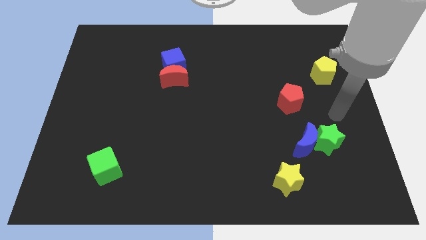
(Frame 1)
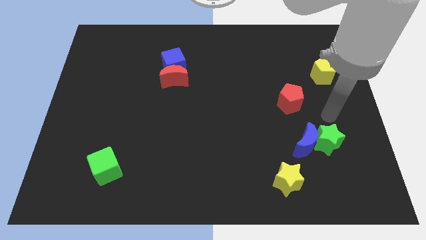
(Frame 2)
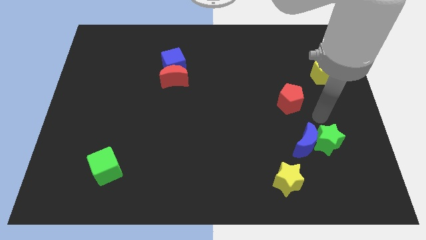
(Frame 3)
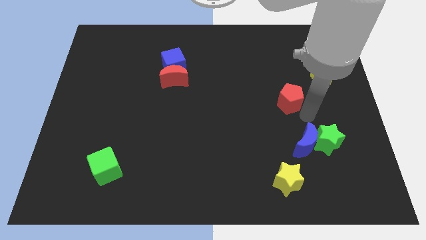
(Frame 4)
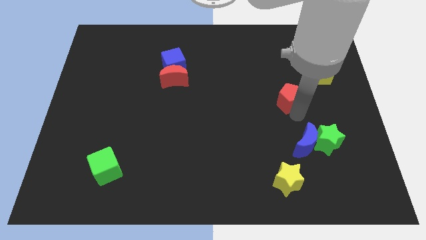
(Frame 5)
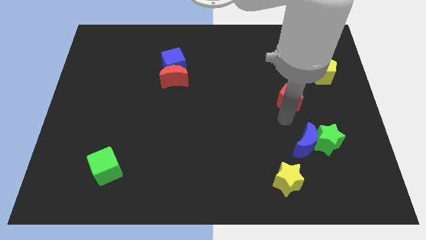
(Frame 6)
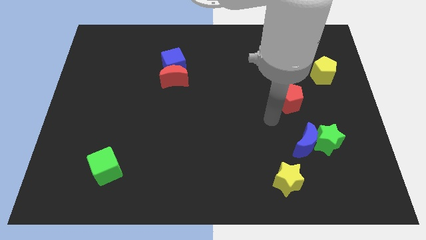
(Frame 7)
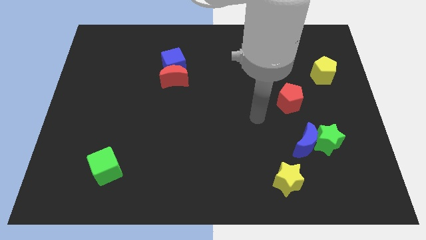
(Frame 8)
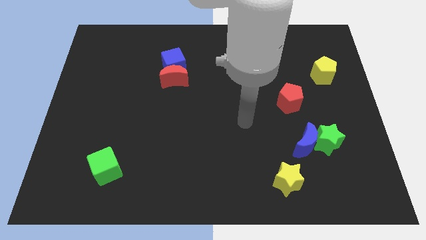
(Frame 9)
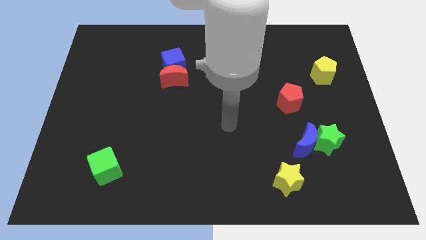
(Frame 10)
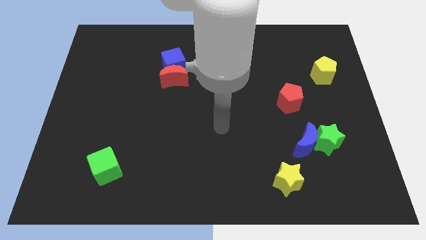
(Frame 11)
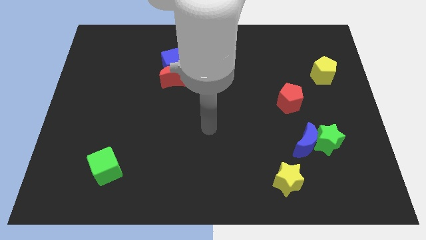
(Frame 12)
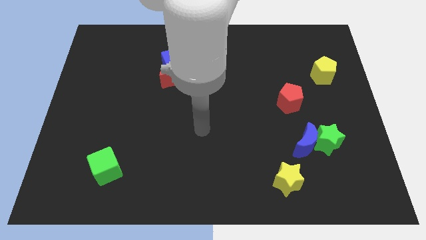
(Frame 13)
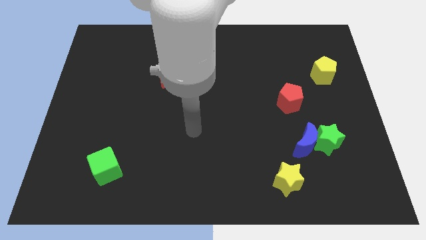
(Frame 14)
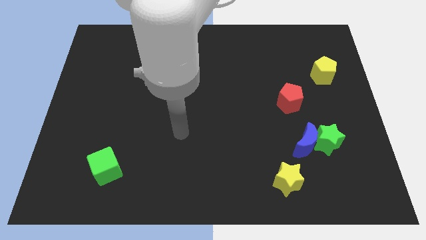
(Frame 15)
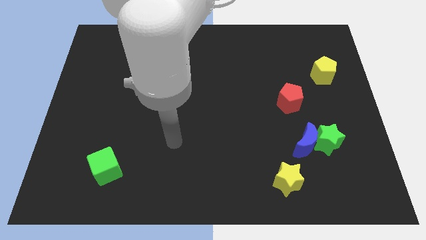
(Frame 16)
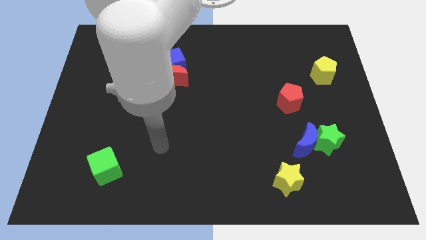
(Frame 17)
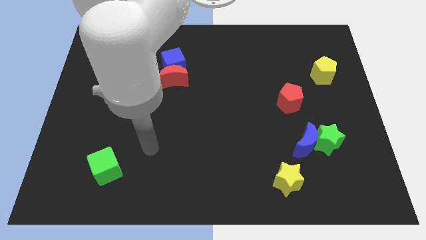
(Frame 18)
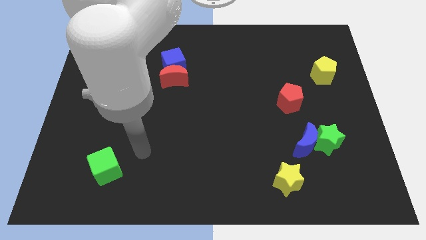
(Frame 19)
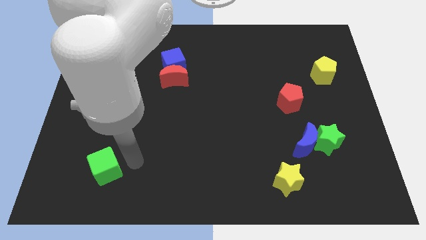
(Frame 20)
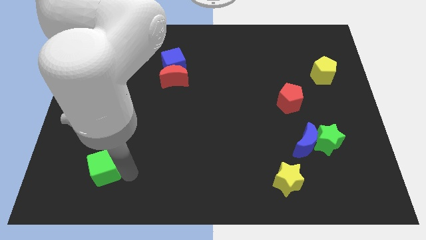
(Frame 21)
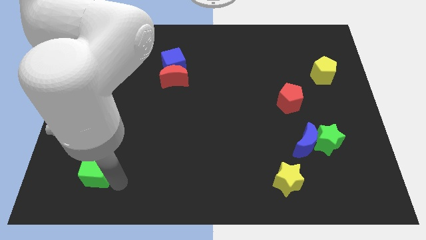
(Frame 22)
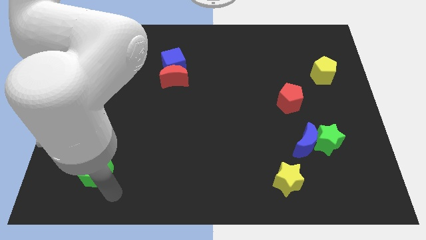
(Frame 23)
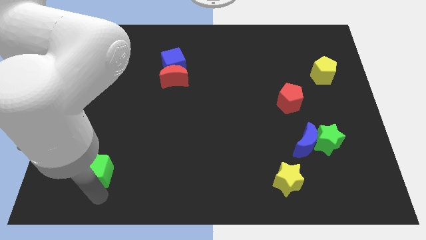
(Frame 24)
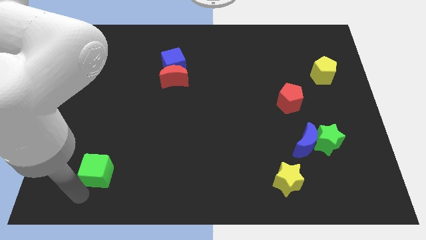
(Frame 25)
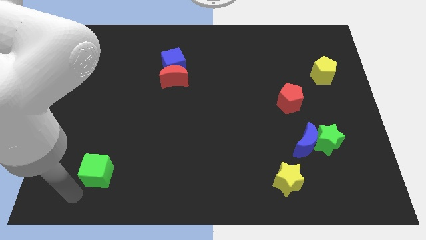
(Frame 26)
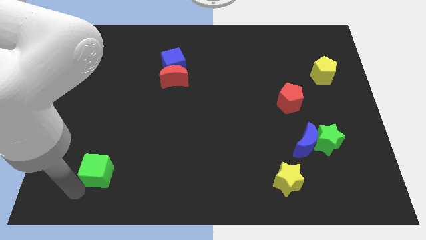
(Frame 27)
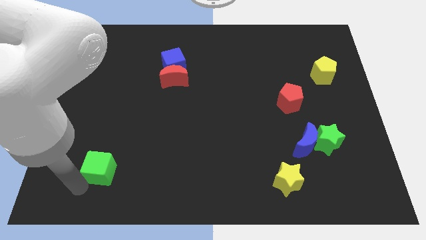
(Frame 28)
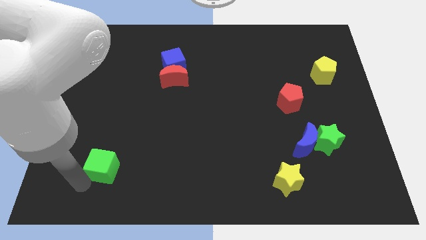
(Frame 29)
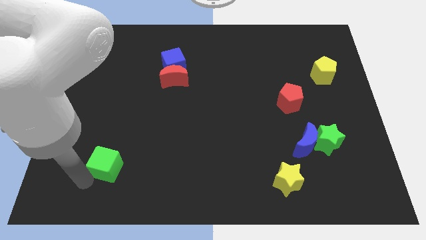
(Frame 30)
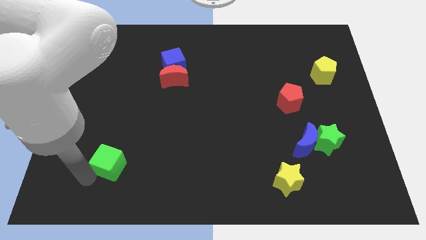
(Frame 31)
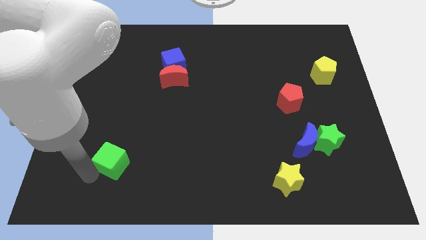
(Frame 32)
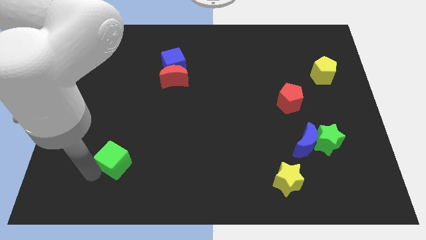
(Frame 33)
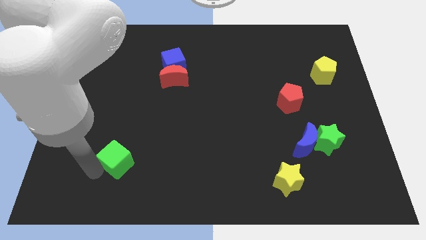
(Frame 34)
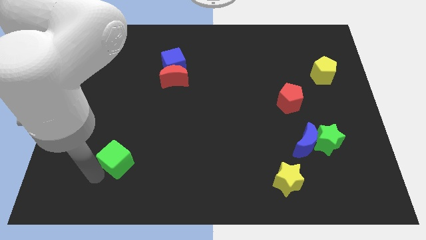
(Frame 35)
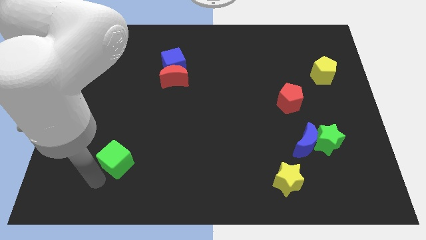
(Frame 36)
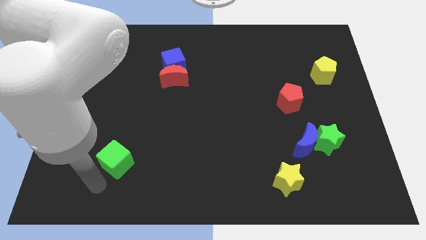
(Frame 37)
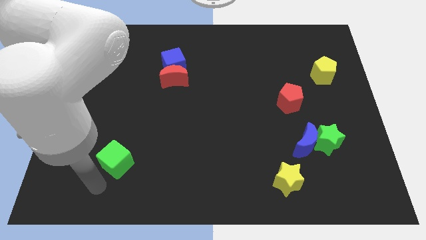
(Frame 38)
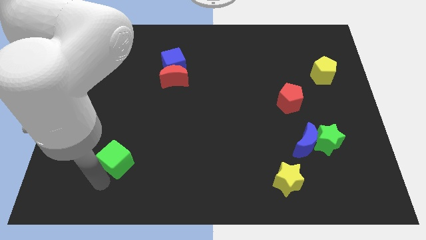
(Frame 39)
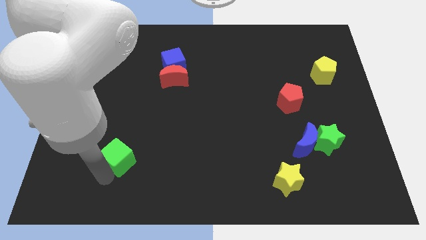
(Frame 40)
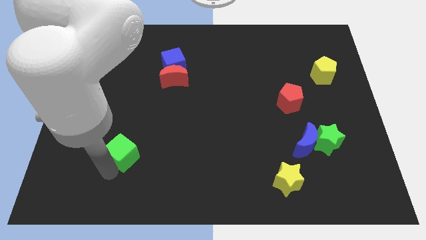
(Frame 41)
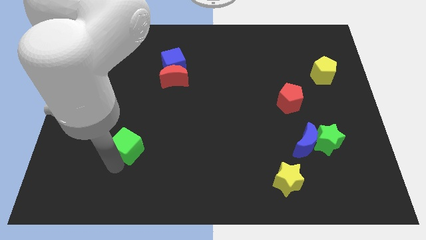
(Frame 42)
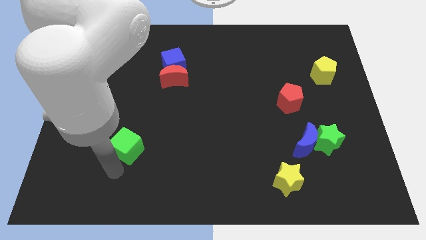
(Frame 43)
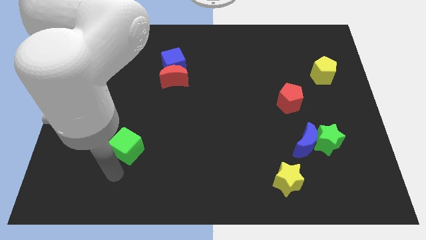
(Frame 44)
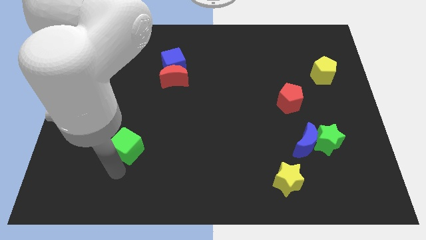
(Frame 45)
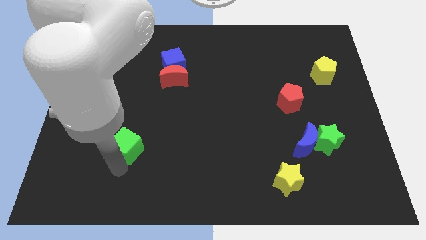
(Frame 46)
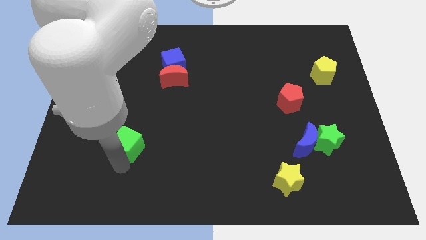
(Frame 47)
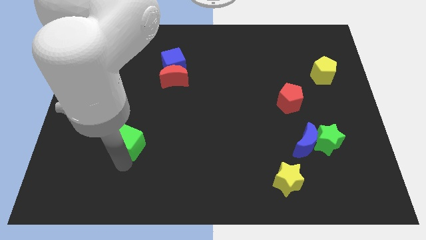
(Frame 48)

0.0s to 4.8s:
push the green cube slightly diagonally upwards and to the right

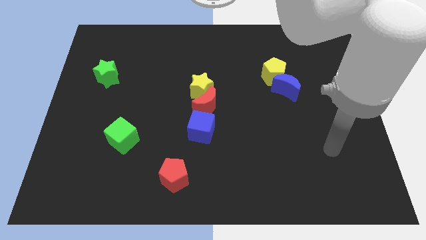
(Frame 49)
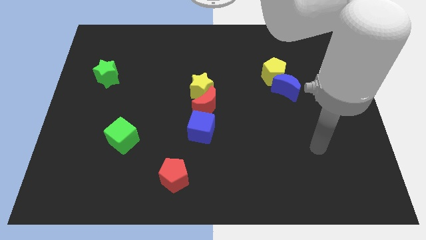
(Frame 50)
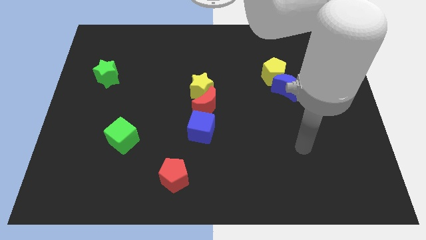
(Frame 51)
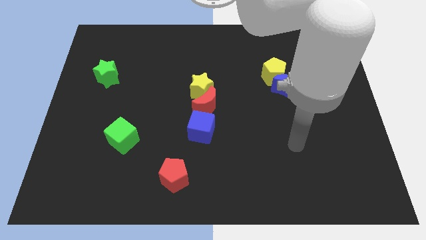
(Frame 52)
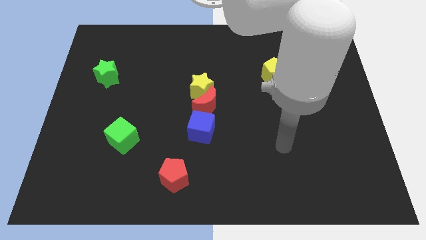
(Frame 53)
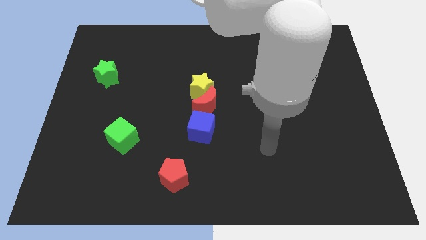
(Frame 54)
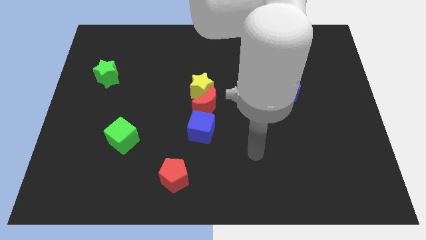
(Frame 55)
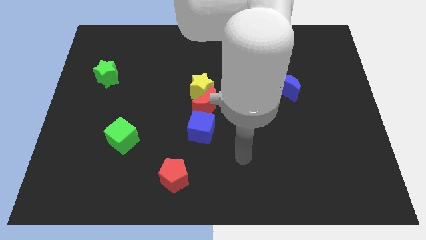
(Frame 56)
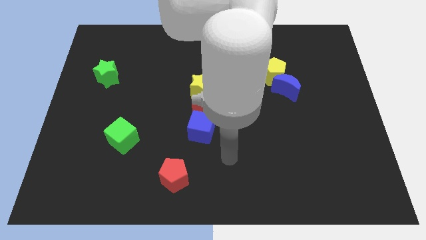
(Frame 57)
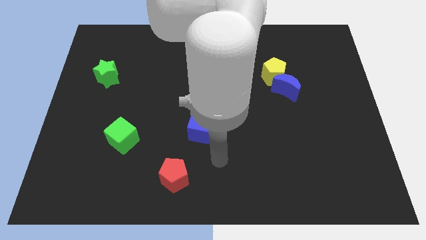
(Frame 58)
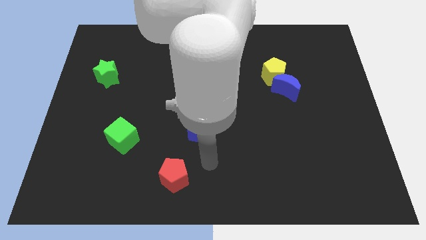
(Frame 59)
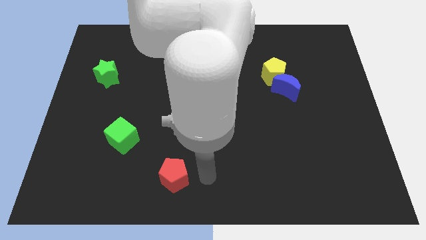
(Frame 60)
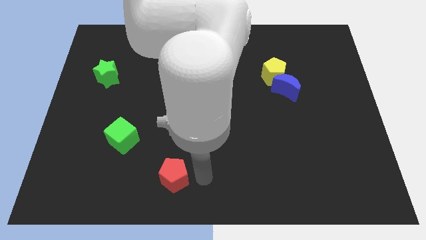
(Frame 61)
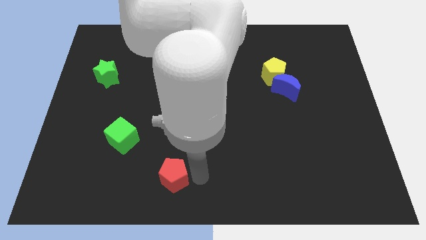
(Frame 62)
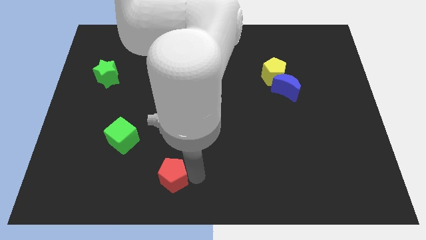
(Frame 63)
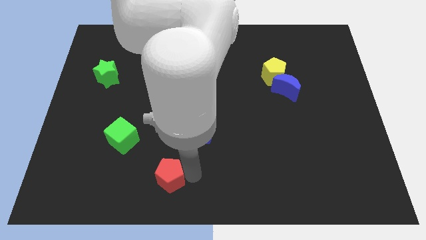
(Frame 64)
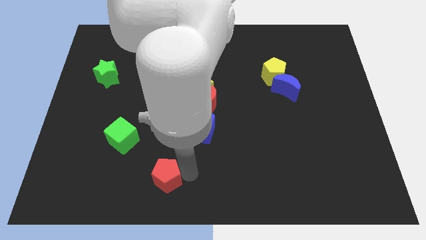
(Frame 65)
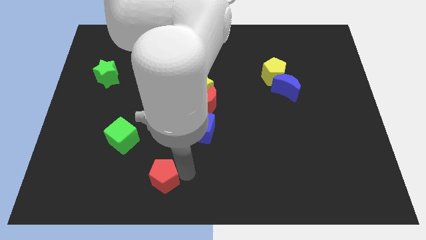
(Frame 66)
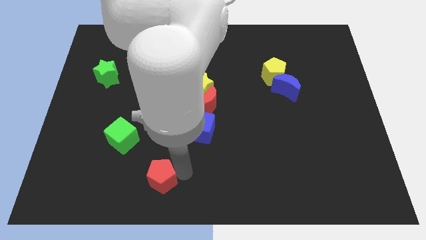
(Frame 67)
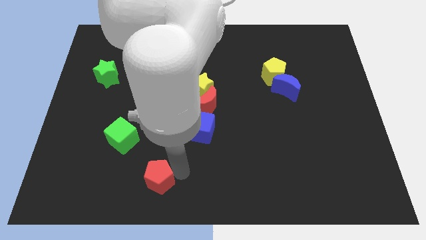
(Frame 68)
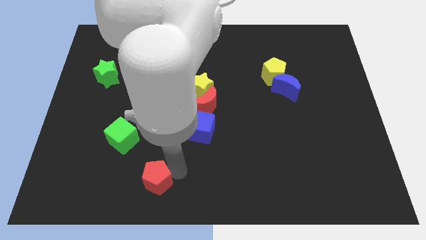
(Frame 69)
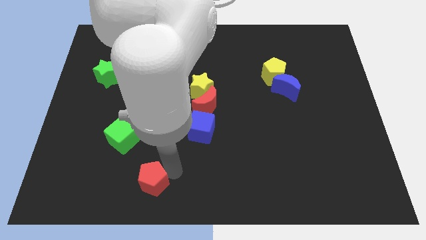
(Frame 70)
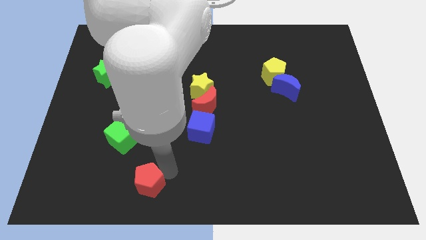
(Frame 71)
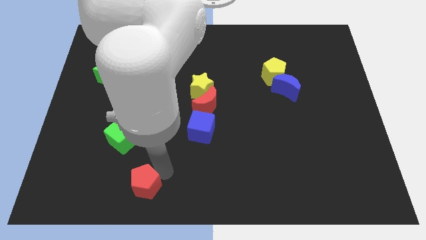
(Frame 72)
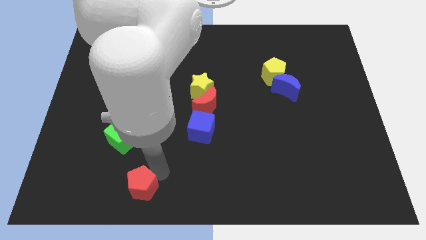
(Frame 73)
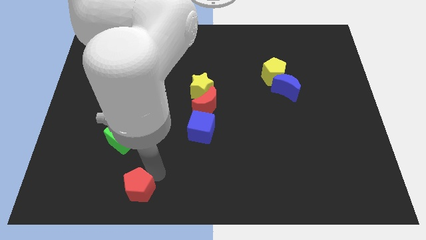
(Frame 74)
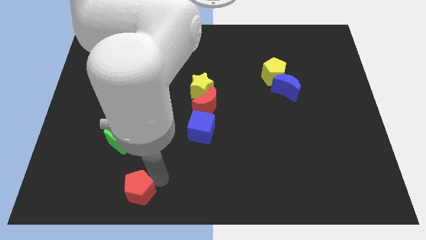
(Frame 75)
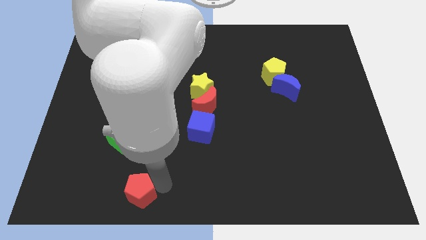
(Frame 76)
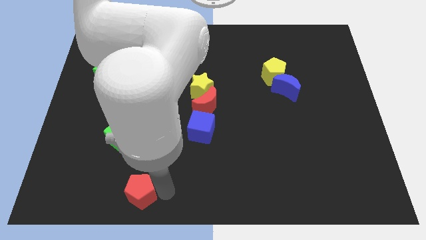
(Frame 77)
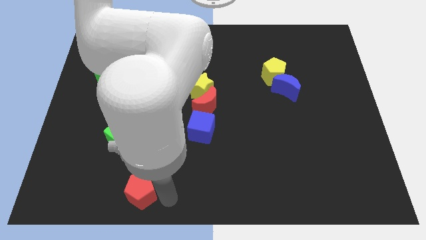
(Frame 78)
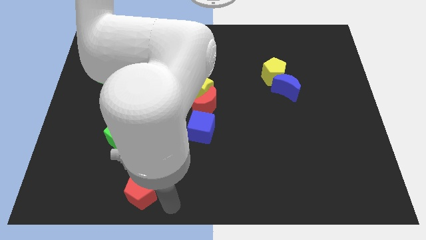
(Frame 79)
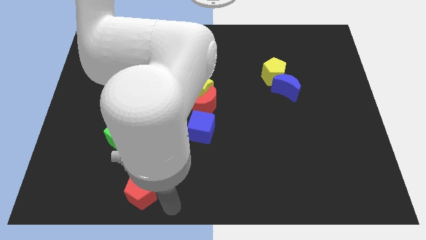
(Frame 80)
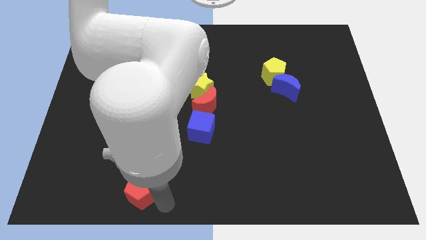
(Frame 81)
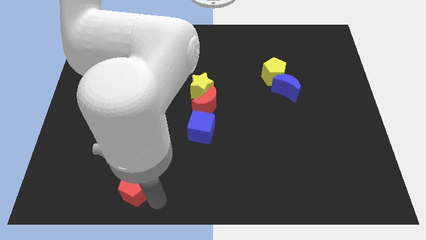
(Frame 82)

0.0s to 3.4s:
slide the red pentagon slightly left

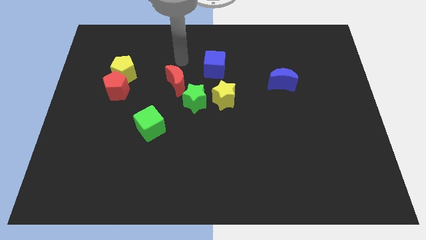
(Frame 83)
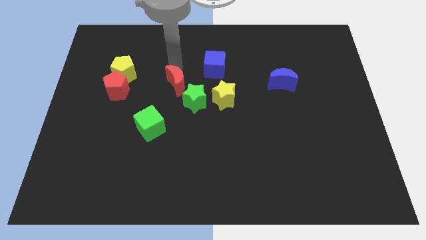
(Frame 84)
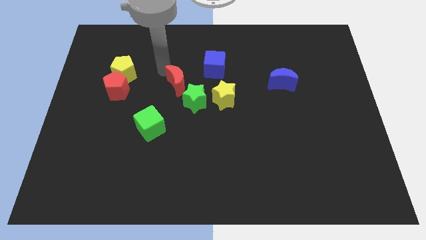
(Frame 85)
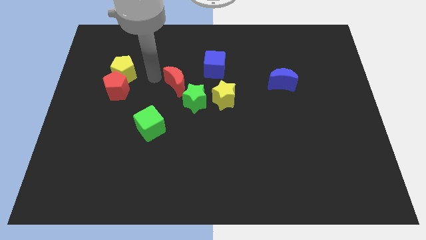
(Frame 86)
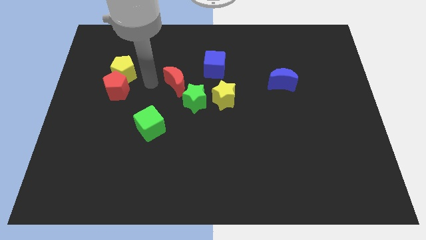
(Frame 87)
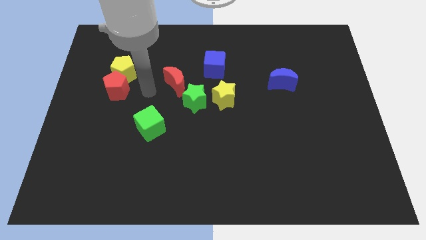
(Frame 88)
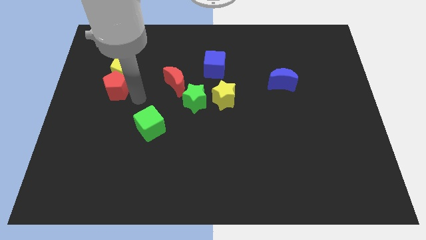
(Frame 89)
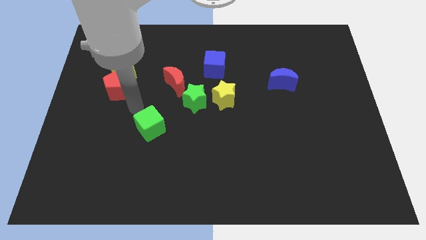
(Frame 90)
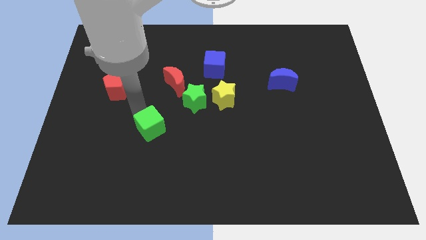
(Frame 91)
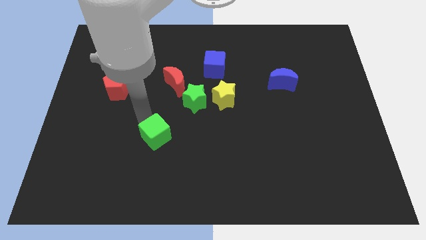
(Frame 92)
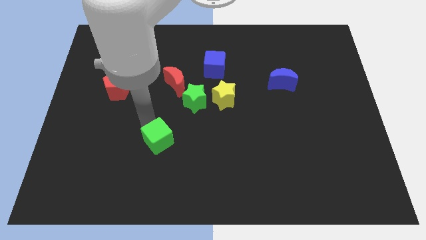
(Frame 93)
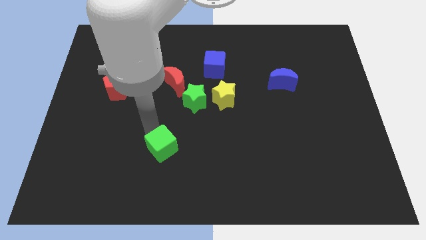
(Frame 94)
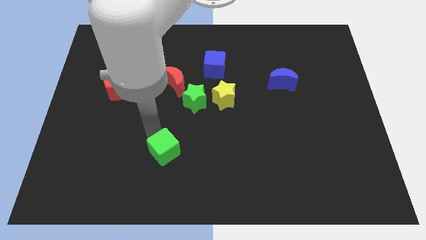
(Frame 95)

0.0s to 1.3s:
slightly slide the green cube downwards and to the right diagonally
